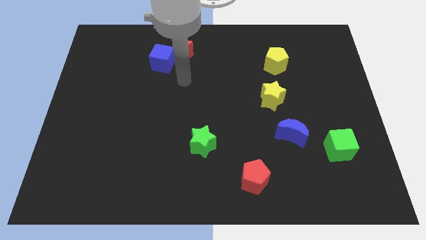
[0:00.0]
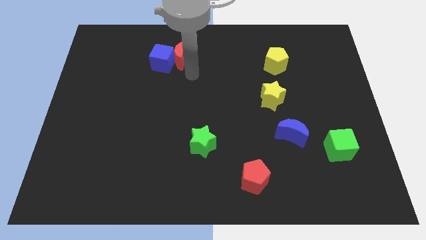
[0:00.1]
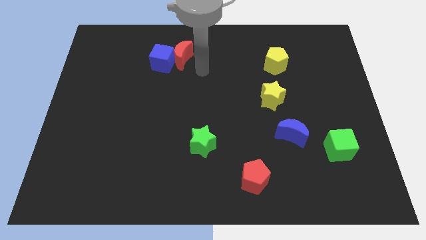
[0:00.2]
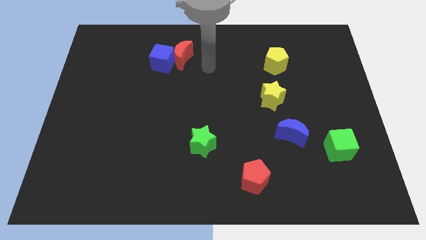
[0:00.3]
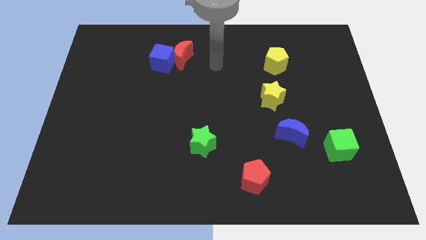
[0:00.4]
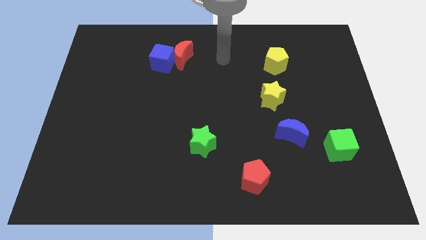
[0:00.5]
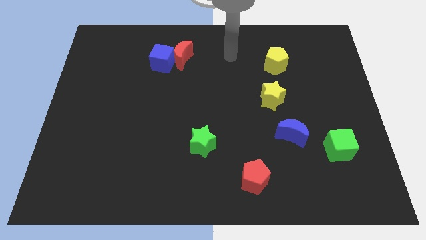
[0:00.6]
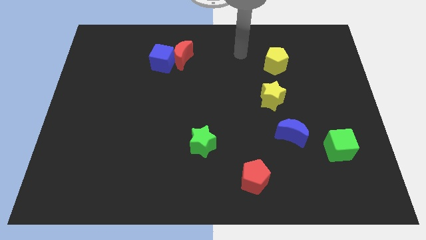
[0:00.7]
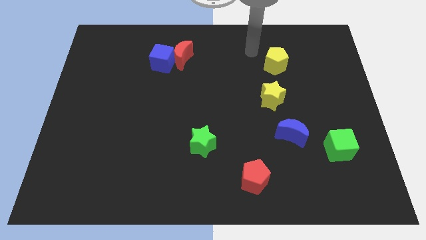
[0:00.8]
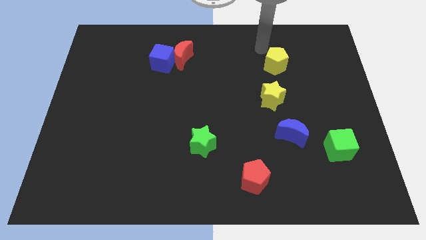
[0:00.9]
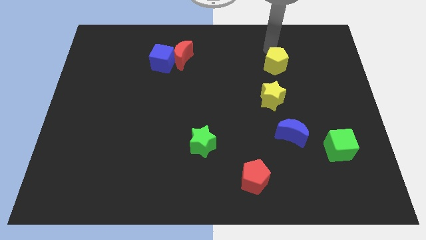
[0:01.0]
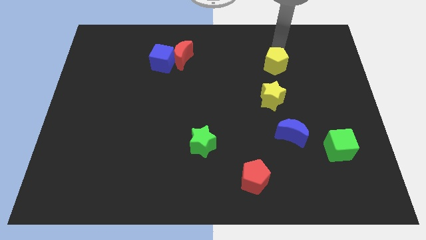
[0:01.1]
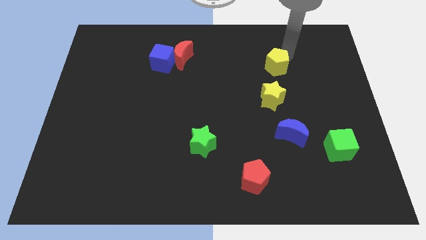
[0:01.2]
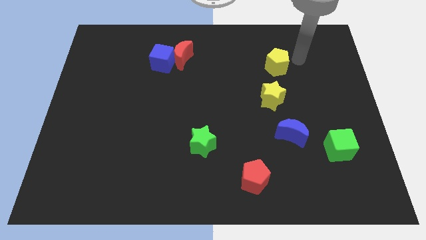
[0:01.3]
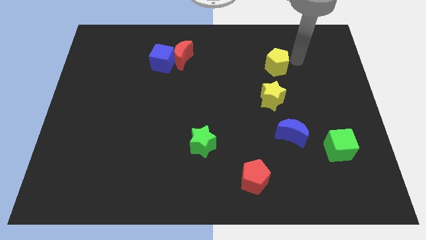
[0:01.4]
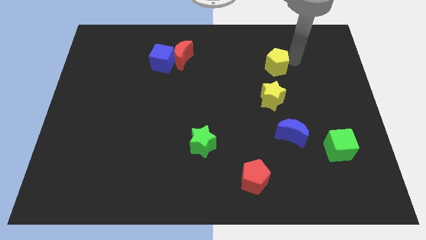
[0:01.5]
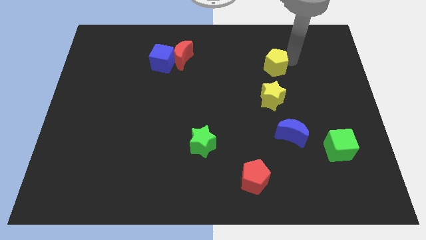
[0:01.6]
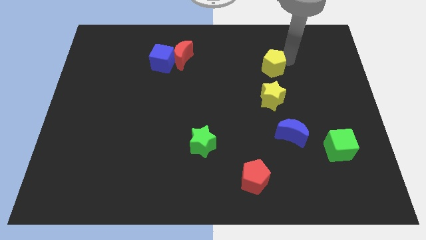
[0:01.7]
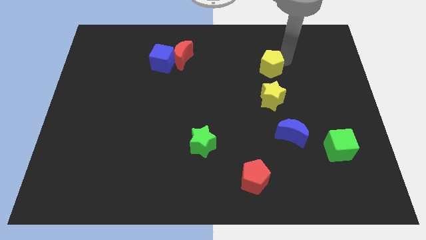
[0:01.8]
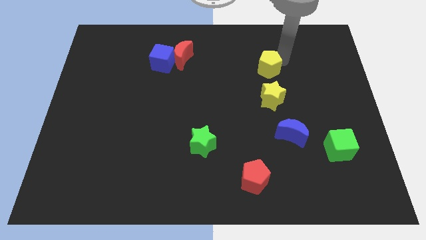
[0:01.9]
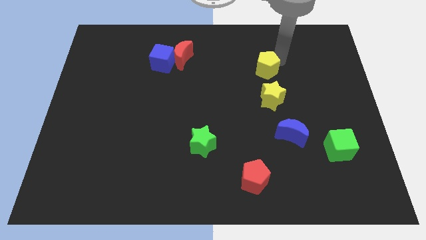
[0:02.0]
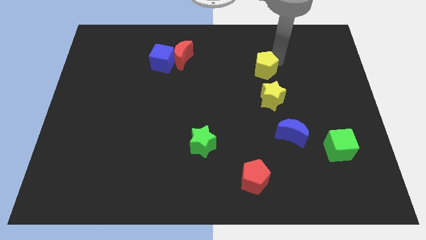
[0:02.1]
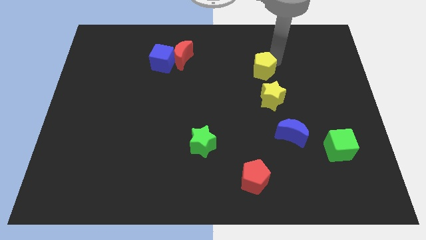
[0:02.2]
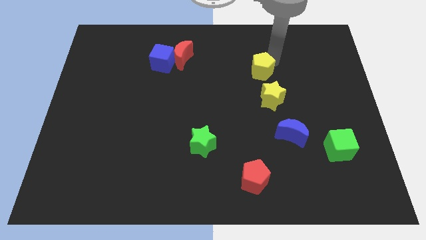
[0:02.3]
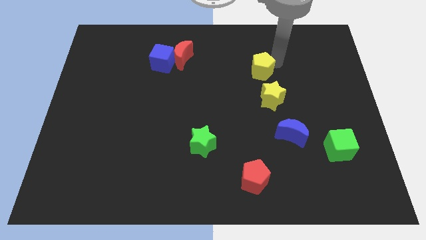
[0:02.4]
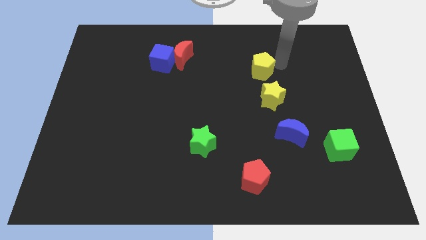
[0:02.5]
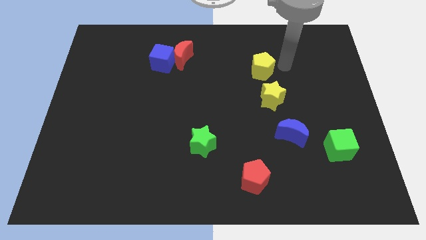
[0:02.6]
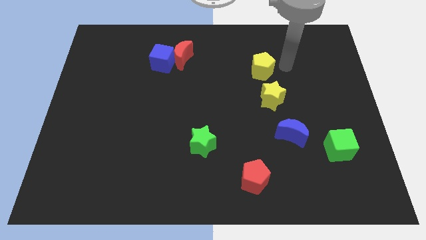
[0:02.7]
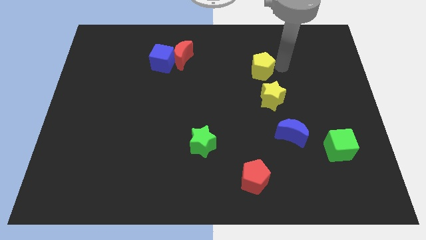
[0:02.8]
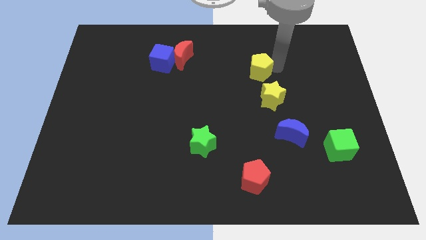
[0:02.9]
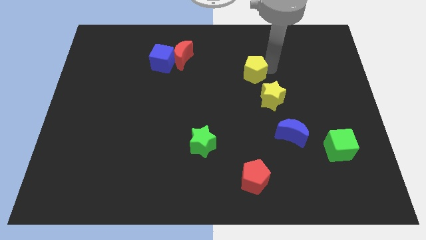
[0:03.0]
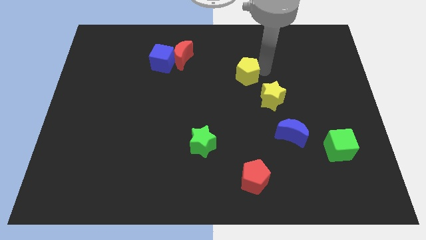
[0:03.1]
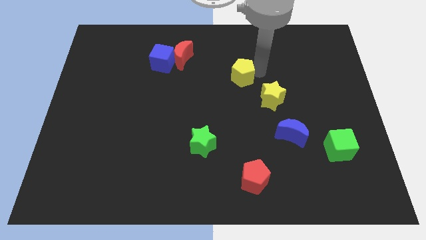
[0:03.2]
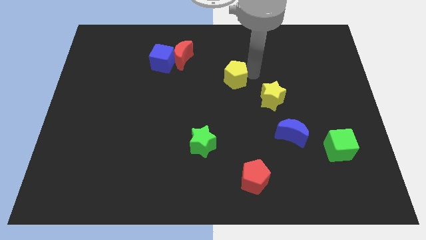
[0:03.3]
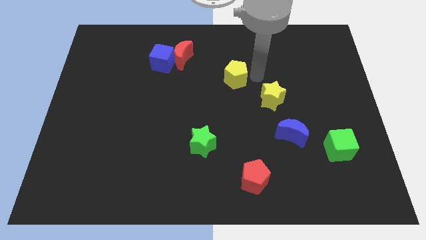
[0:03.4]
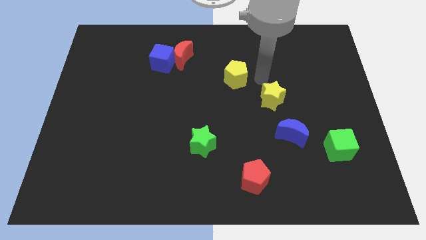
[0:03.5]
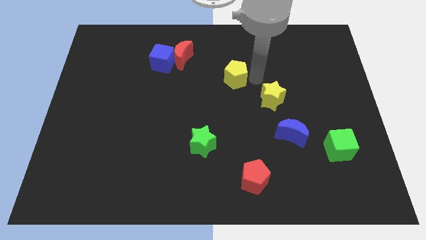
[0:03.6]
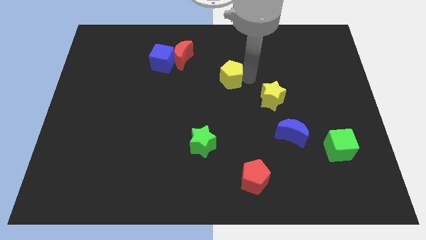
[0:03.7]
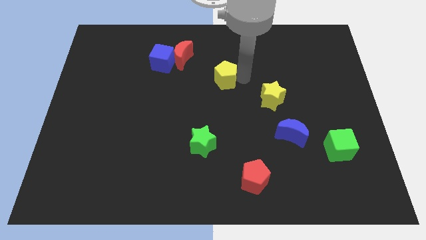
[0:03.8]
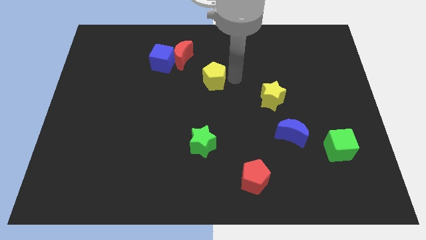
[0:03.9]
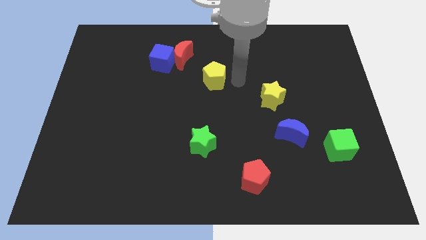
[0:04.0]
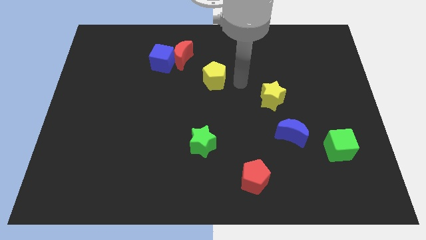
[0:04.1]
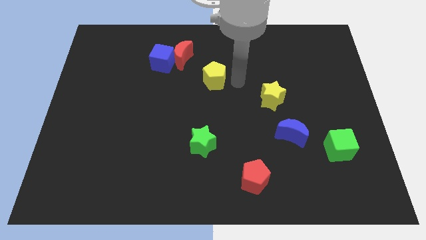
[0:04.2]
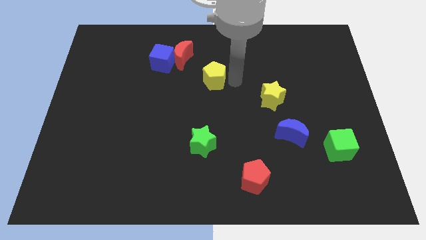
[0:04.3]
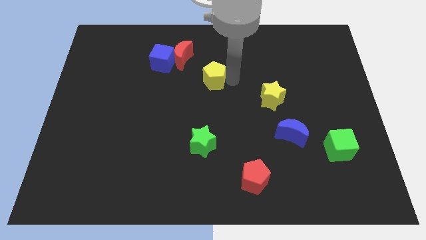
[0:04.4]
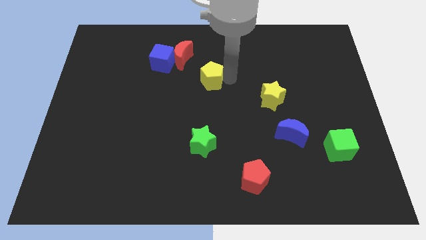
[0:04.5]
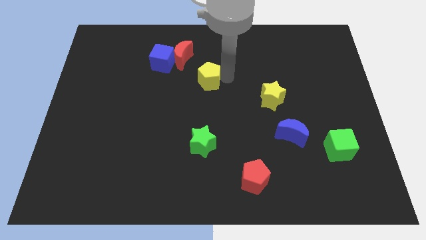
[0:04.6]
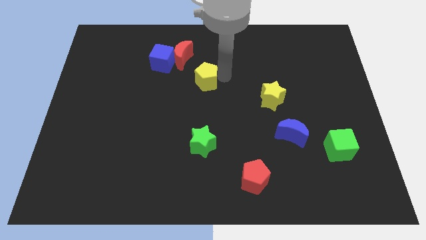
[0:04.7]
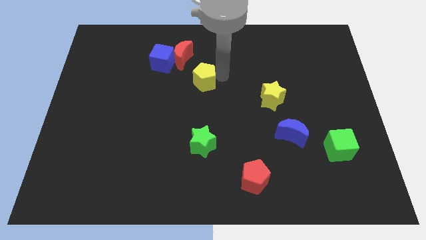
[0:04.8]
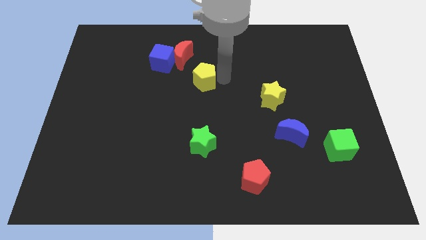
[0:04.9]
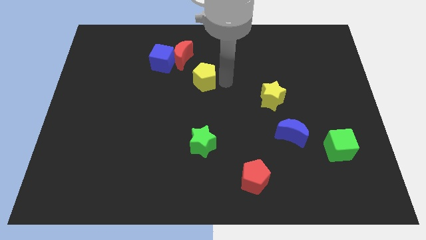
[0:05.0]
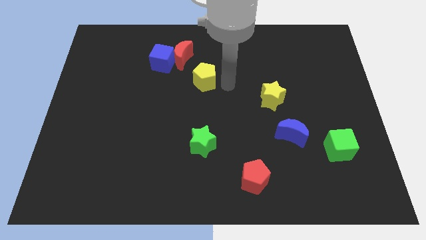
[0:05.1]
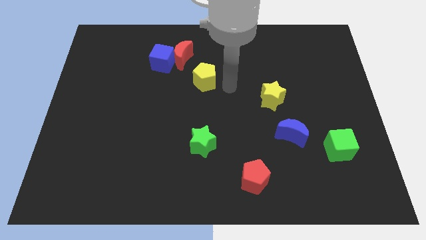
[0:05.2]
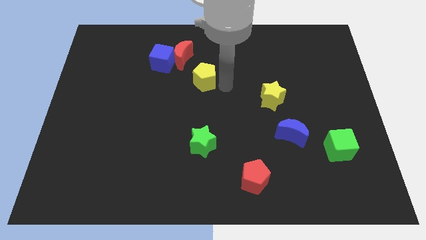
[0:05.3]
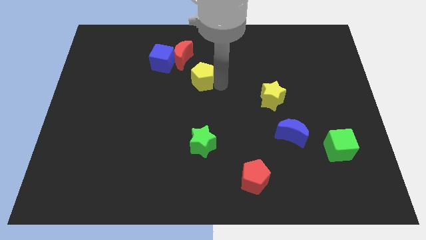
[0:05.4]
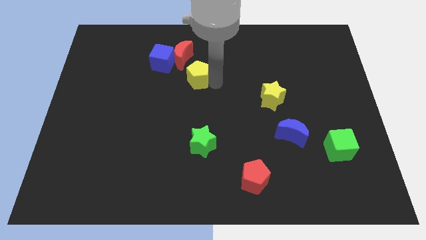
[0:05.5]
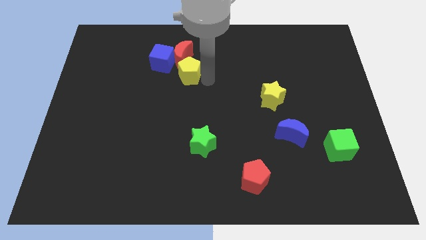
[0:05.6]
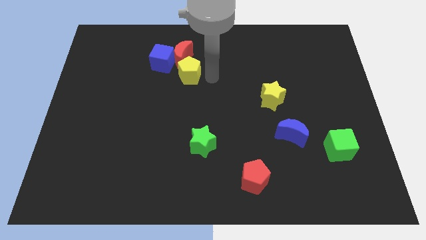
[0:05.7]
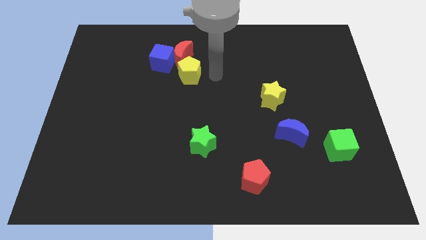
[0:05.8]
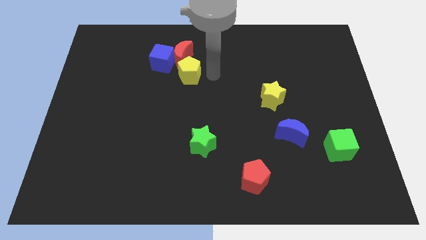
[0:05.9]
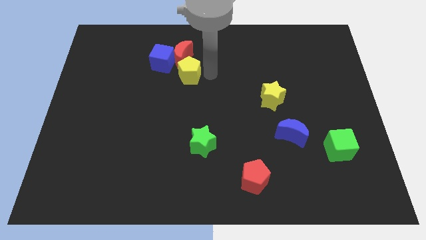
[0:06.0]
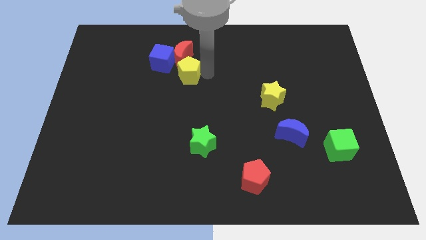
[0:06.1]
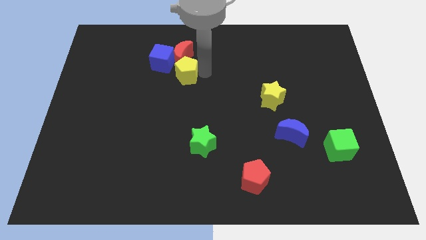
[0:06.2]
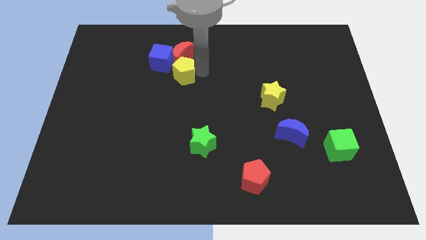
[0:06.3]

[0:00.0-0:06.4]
put the yellow pentagon diagonally down and to the left of the red moon

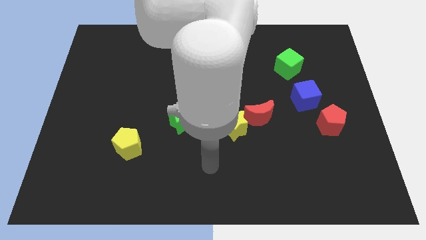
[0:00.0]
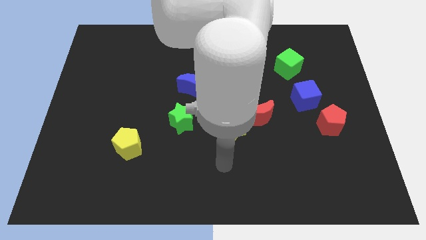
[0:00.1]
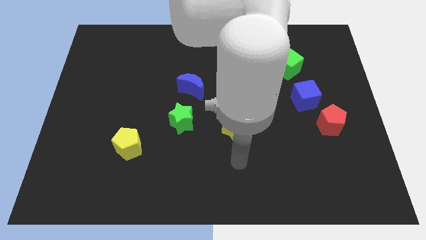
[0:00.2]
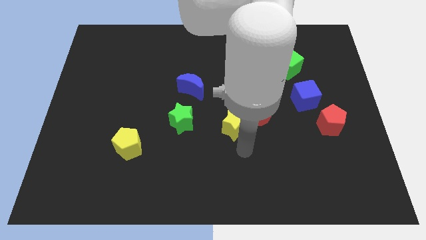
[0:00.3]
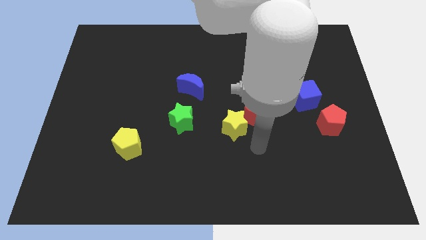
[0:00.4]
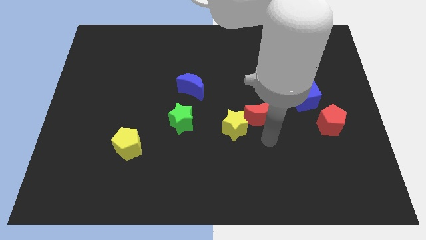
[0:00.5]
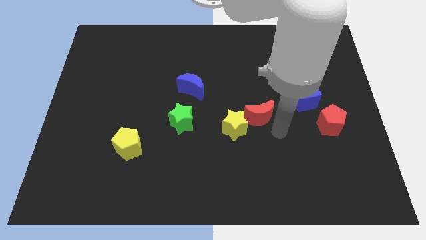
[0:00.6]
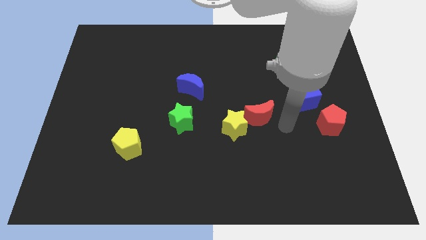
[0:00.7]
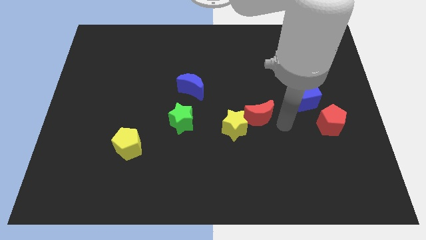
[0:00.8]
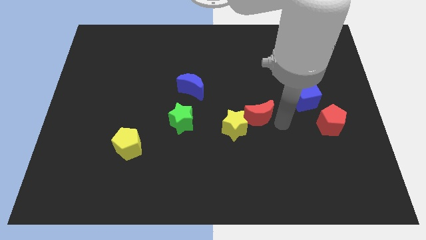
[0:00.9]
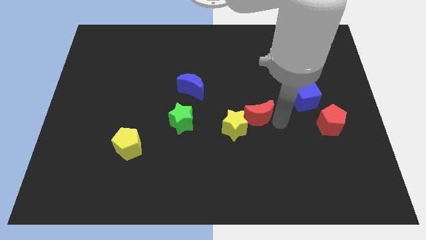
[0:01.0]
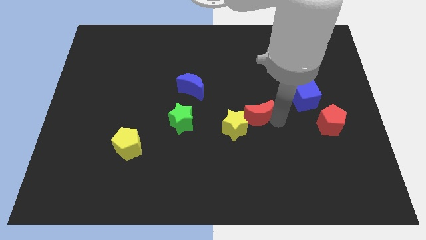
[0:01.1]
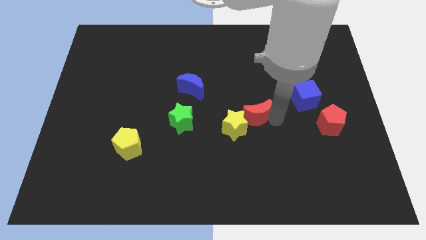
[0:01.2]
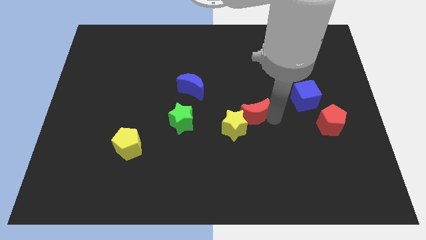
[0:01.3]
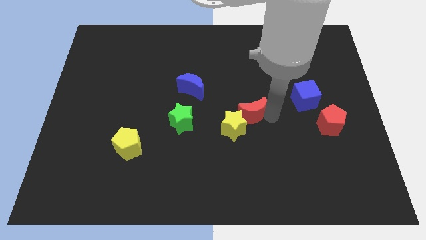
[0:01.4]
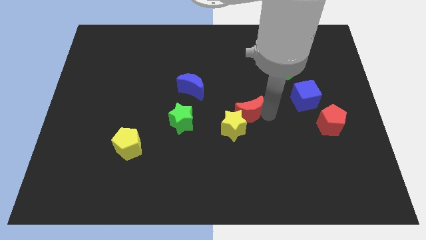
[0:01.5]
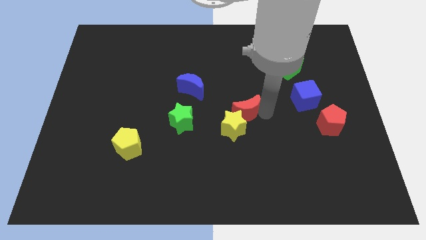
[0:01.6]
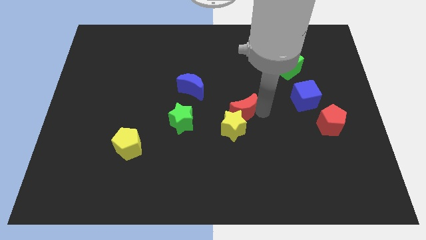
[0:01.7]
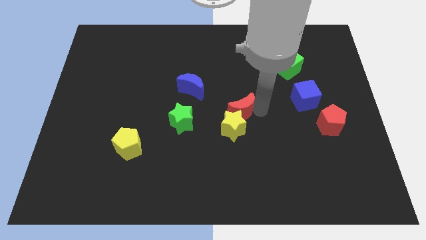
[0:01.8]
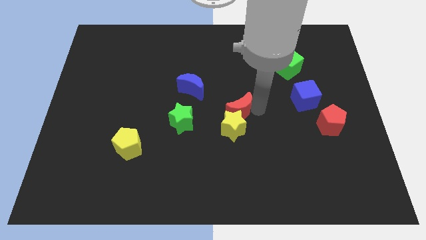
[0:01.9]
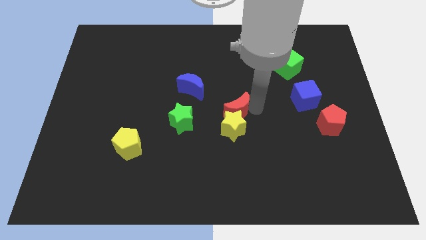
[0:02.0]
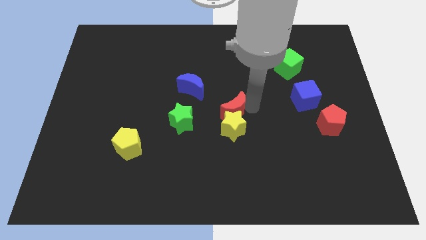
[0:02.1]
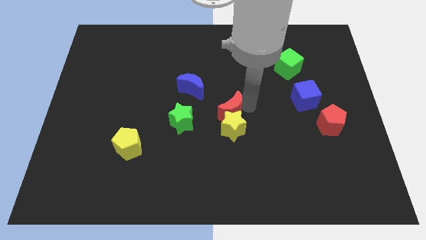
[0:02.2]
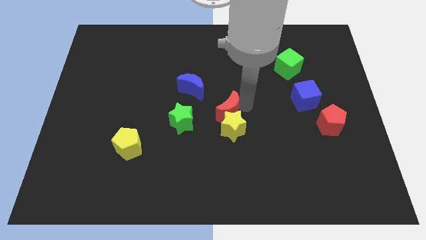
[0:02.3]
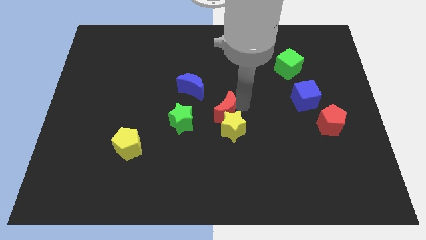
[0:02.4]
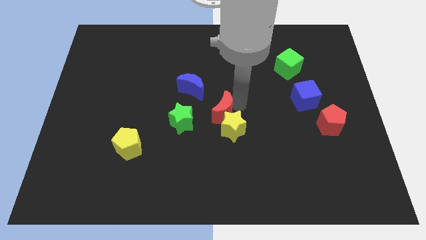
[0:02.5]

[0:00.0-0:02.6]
slide the red moon to the top right side of the green star
